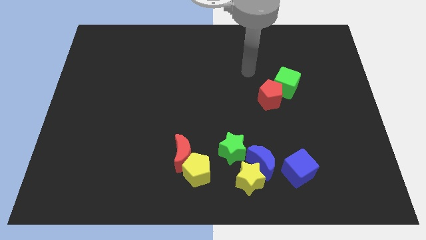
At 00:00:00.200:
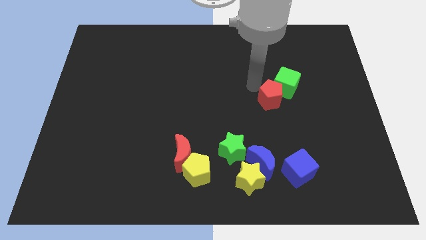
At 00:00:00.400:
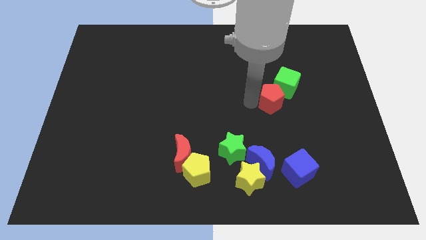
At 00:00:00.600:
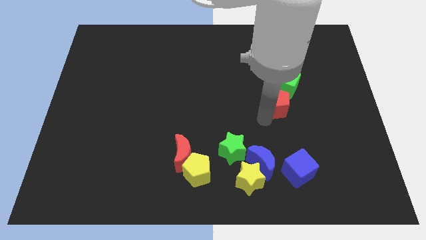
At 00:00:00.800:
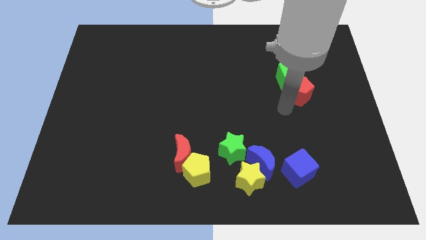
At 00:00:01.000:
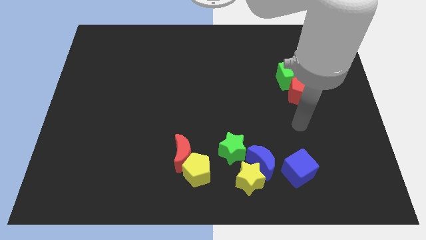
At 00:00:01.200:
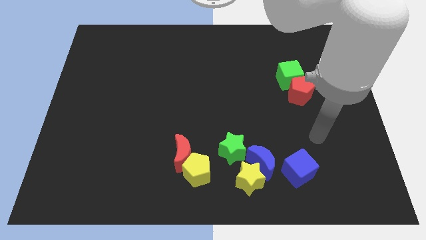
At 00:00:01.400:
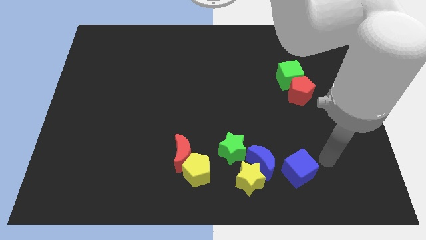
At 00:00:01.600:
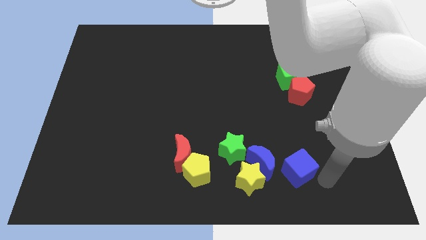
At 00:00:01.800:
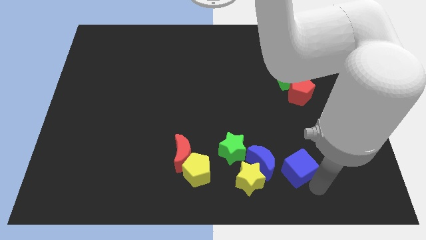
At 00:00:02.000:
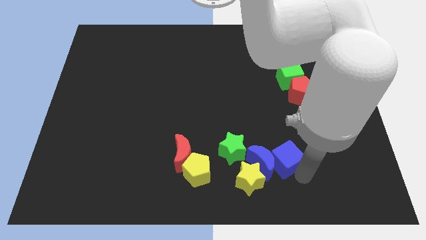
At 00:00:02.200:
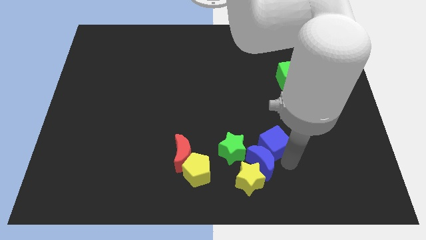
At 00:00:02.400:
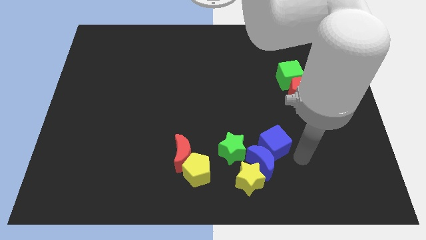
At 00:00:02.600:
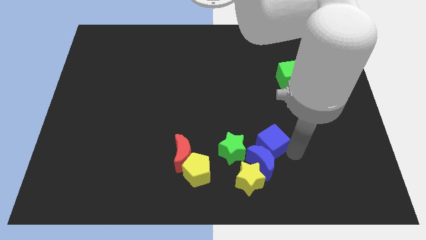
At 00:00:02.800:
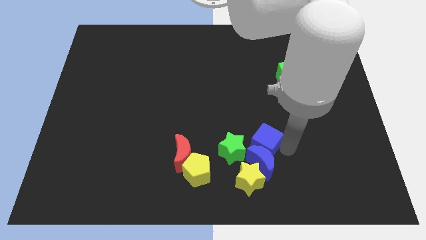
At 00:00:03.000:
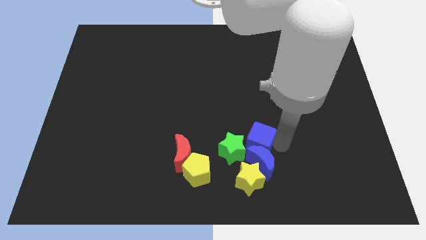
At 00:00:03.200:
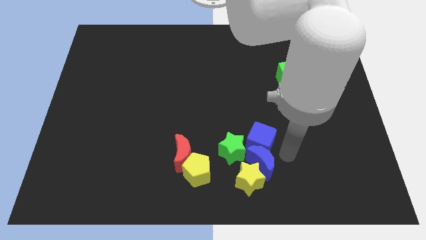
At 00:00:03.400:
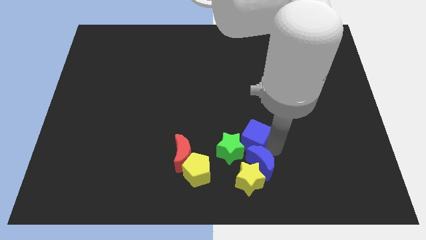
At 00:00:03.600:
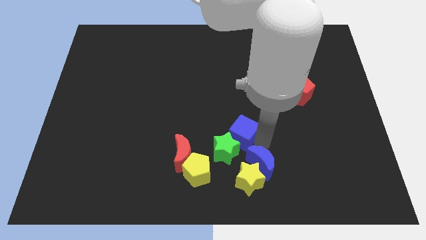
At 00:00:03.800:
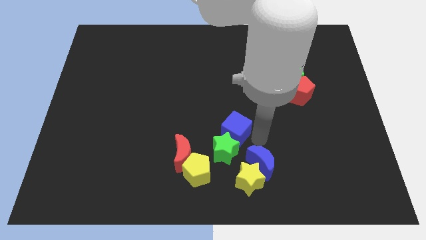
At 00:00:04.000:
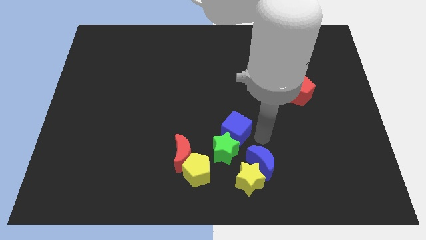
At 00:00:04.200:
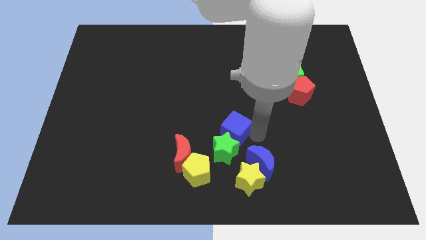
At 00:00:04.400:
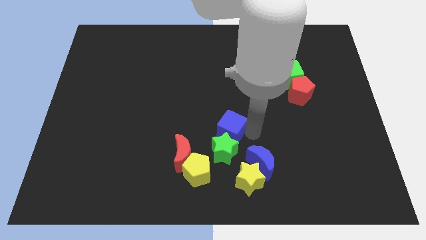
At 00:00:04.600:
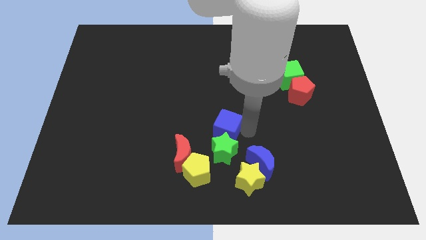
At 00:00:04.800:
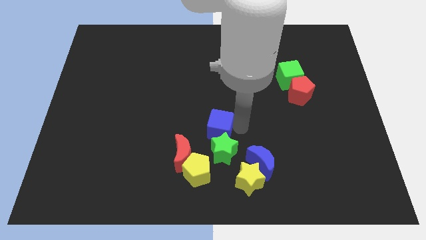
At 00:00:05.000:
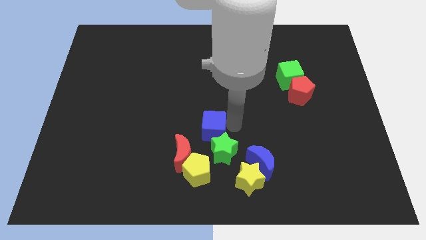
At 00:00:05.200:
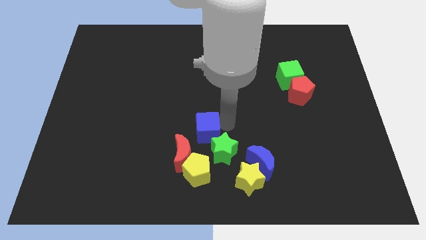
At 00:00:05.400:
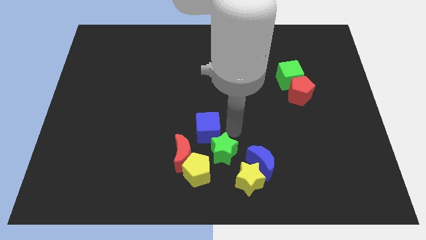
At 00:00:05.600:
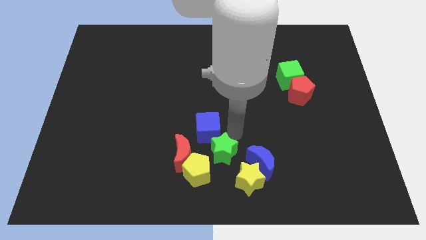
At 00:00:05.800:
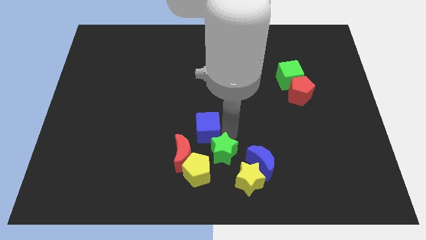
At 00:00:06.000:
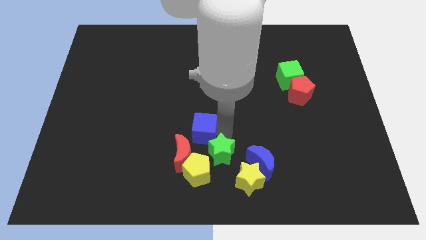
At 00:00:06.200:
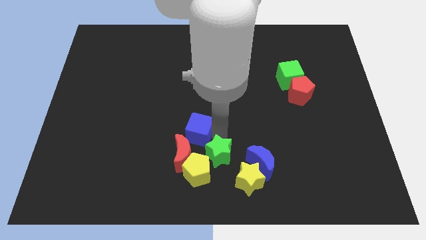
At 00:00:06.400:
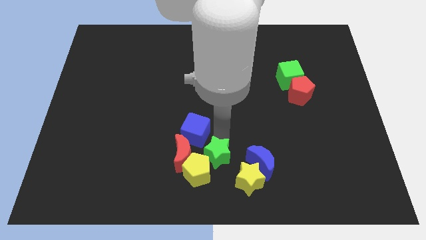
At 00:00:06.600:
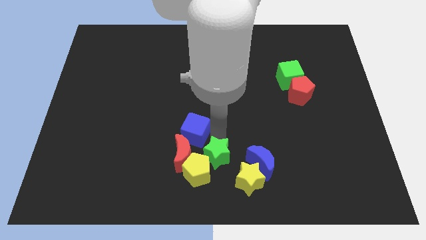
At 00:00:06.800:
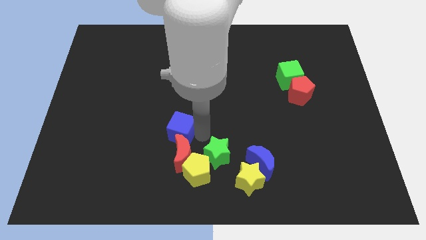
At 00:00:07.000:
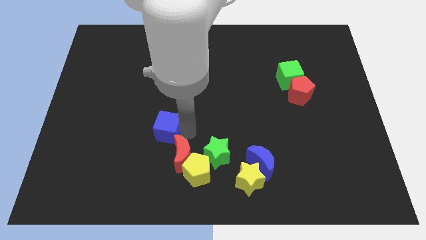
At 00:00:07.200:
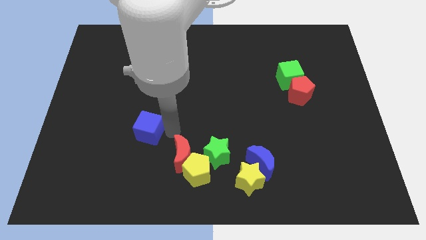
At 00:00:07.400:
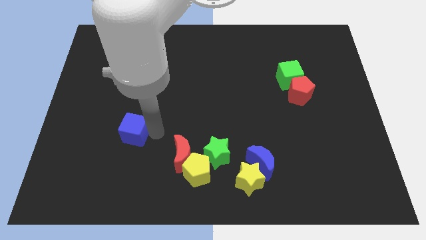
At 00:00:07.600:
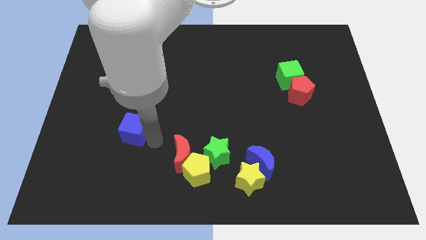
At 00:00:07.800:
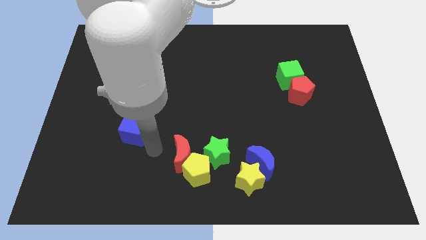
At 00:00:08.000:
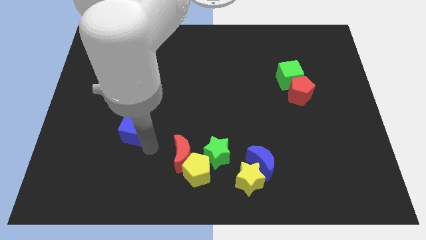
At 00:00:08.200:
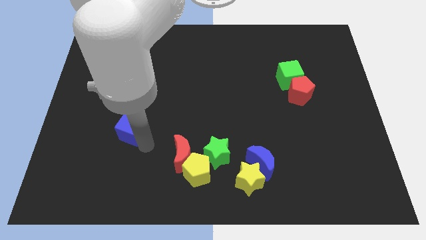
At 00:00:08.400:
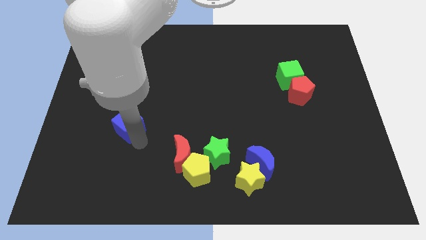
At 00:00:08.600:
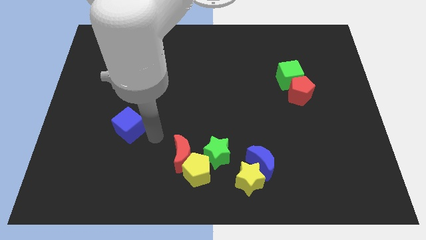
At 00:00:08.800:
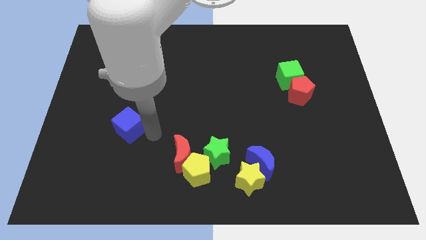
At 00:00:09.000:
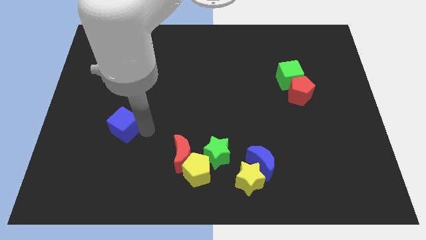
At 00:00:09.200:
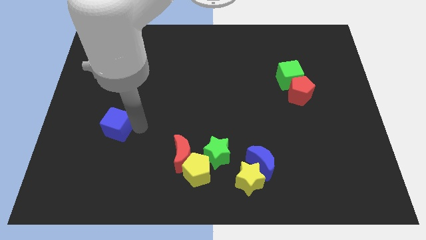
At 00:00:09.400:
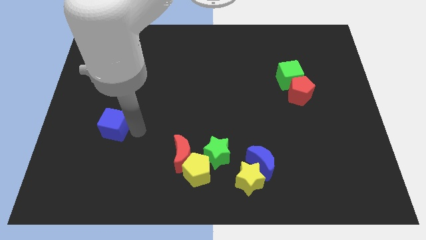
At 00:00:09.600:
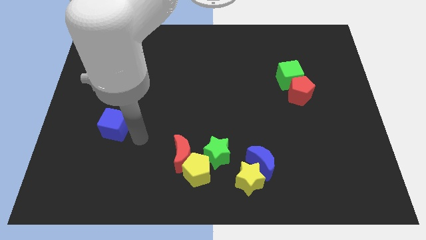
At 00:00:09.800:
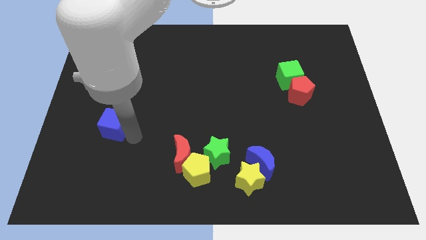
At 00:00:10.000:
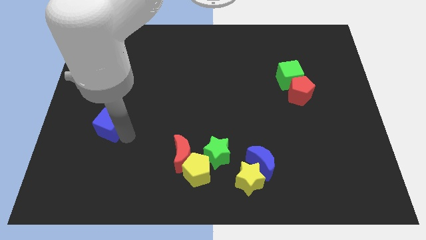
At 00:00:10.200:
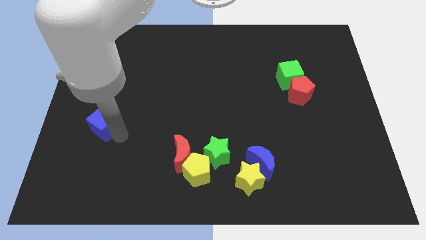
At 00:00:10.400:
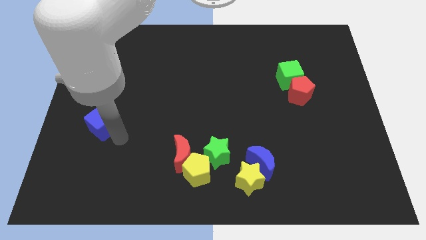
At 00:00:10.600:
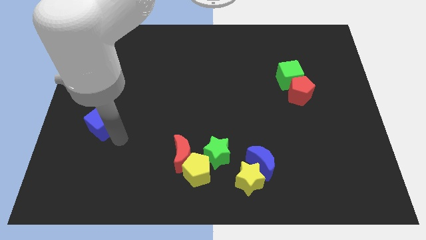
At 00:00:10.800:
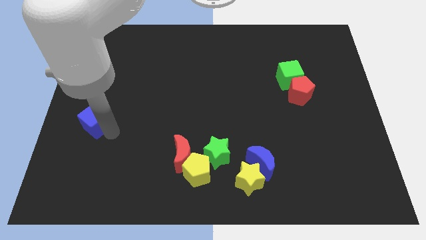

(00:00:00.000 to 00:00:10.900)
put the blue cube to the left side

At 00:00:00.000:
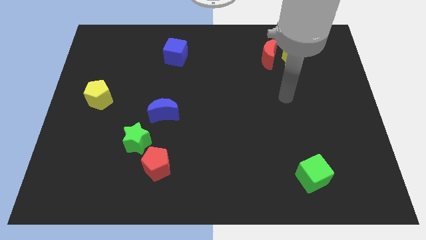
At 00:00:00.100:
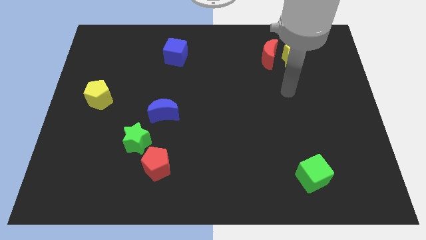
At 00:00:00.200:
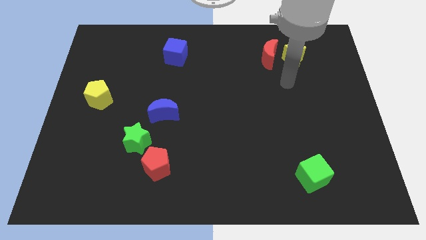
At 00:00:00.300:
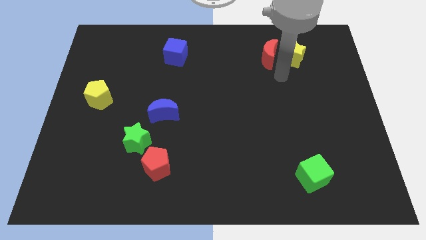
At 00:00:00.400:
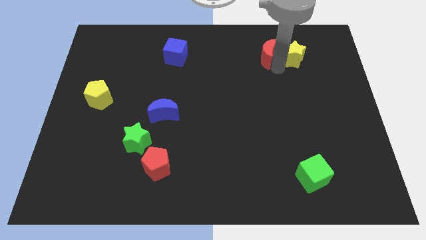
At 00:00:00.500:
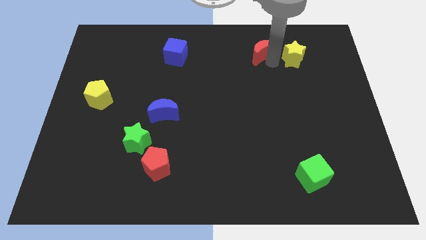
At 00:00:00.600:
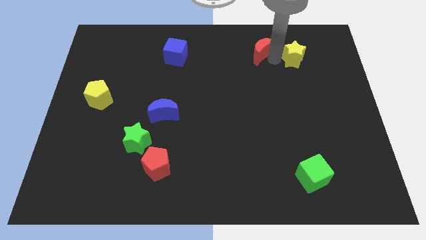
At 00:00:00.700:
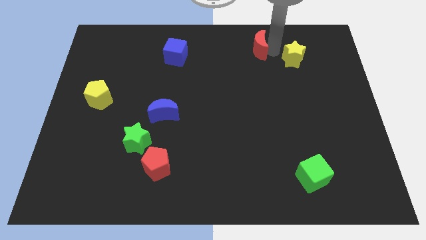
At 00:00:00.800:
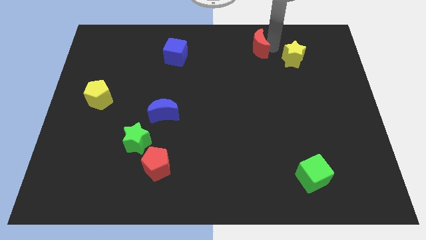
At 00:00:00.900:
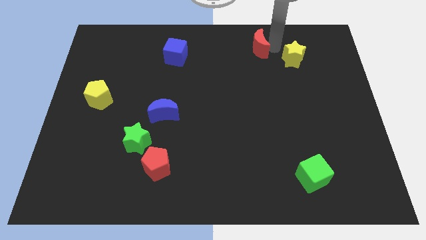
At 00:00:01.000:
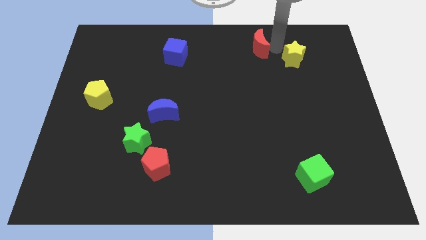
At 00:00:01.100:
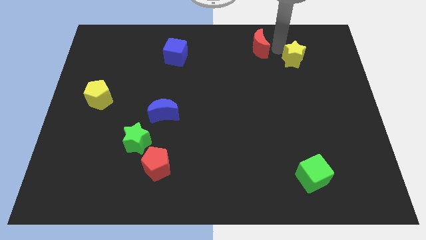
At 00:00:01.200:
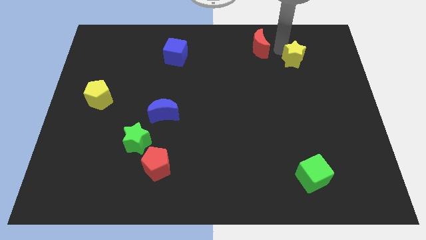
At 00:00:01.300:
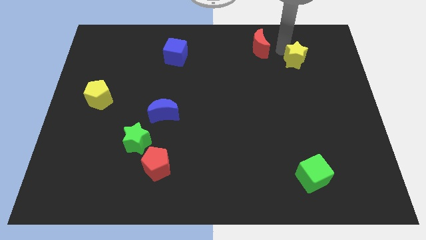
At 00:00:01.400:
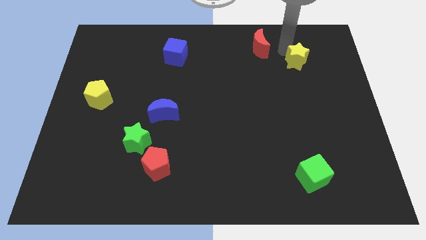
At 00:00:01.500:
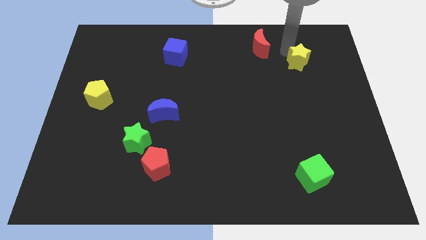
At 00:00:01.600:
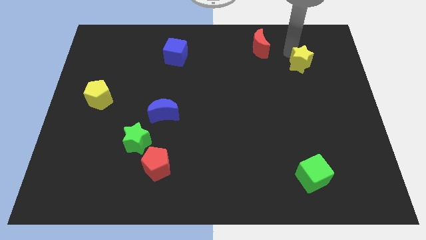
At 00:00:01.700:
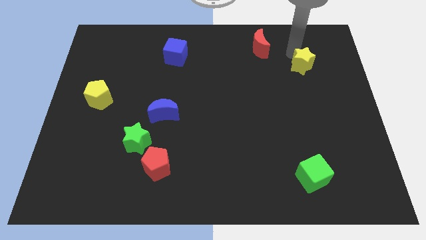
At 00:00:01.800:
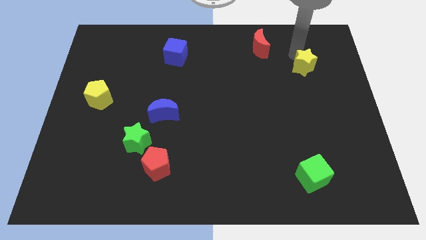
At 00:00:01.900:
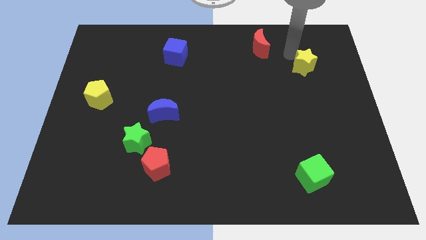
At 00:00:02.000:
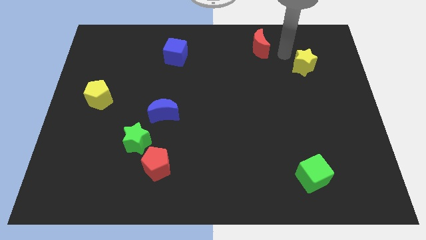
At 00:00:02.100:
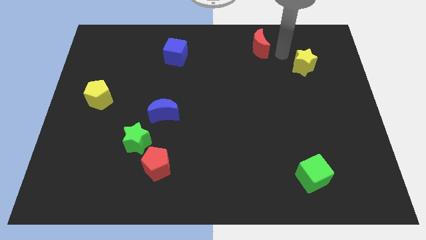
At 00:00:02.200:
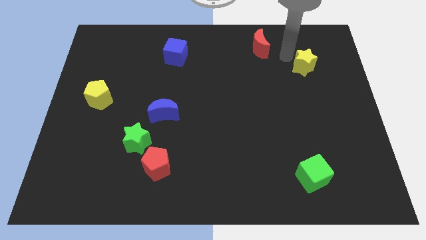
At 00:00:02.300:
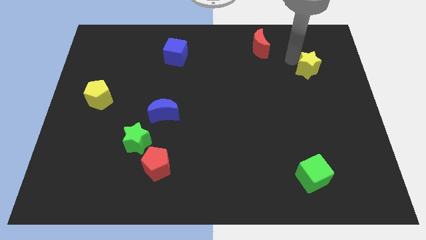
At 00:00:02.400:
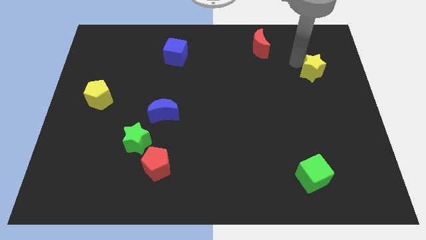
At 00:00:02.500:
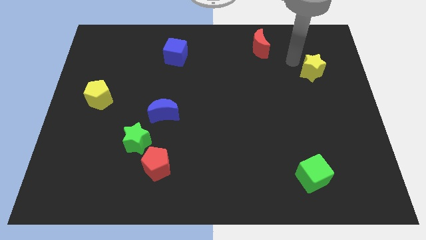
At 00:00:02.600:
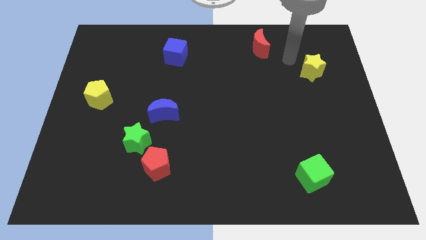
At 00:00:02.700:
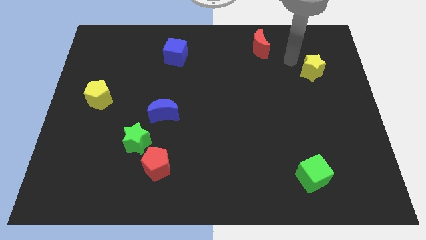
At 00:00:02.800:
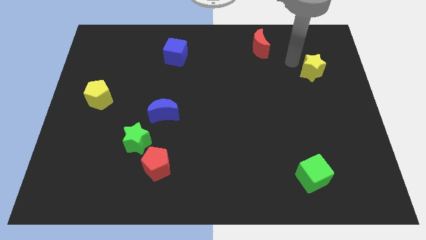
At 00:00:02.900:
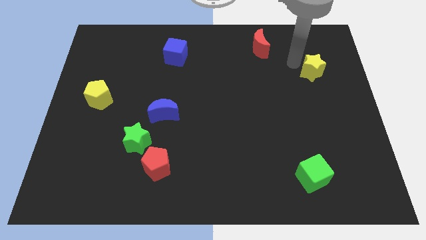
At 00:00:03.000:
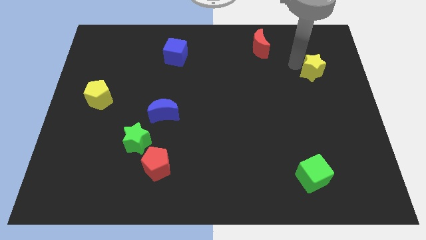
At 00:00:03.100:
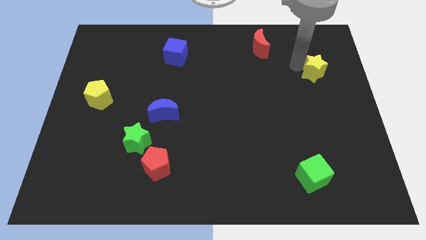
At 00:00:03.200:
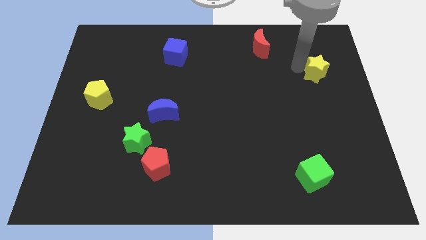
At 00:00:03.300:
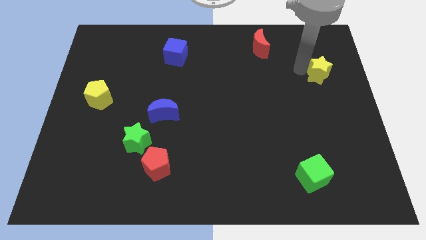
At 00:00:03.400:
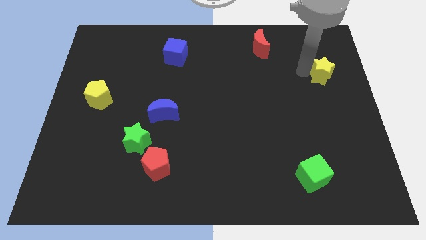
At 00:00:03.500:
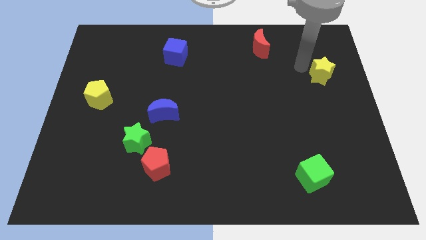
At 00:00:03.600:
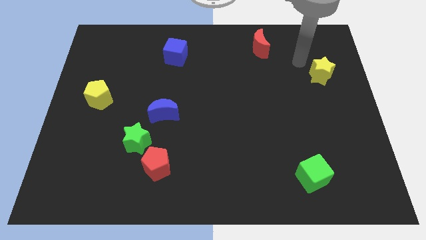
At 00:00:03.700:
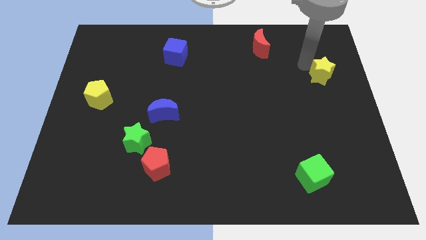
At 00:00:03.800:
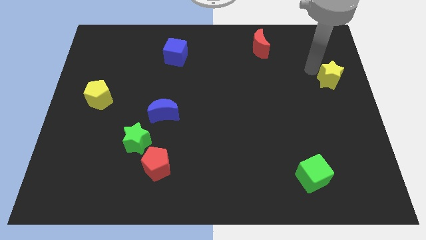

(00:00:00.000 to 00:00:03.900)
slide the yellow star to the right side of the board
